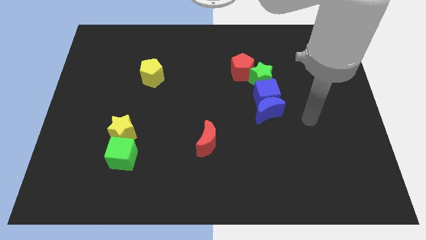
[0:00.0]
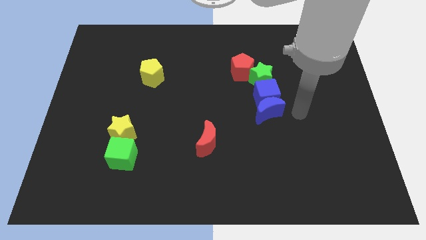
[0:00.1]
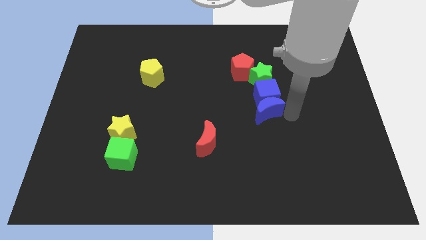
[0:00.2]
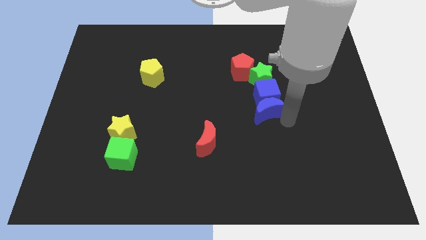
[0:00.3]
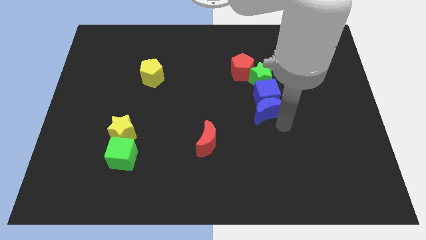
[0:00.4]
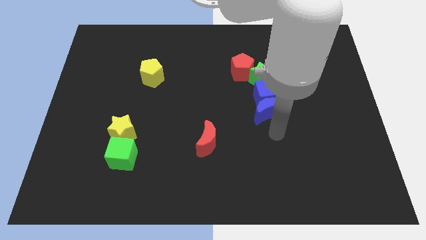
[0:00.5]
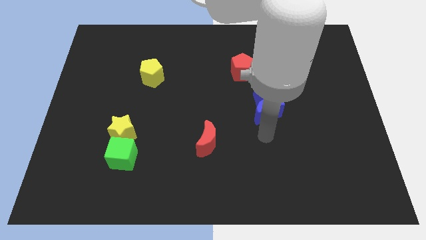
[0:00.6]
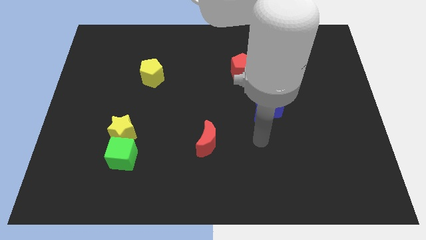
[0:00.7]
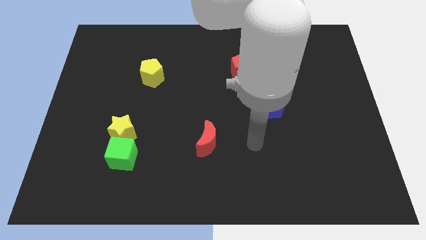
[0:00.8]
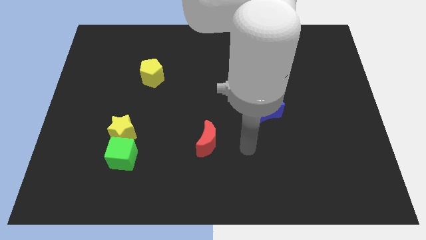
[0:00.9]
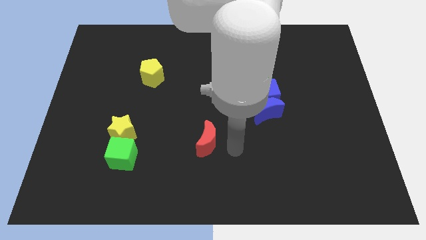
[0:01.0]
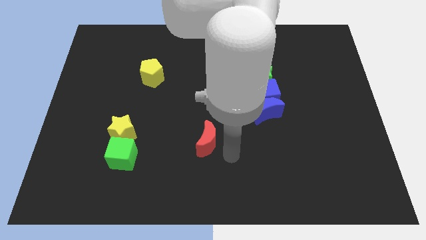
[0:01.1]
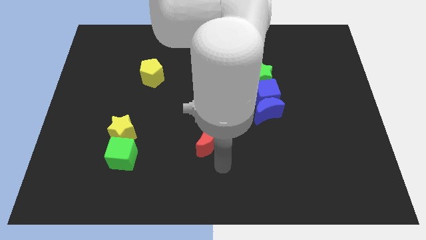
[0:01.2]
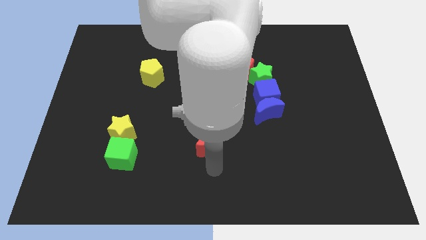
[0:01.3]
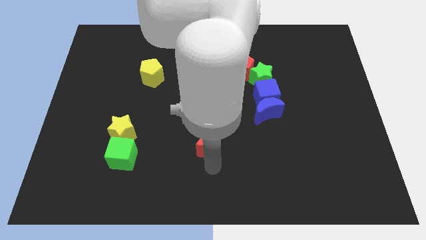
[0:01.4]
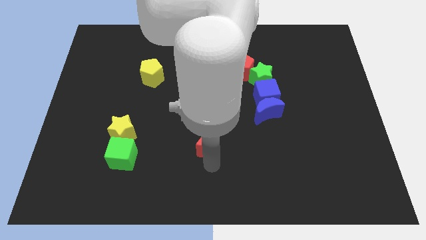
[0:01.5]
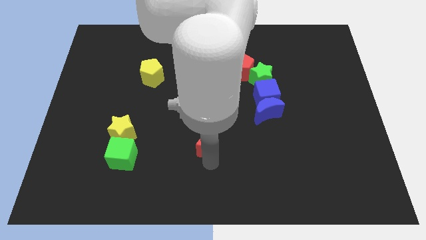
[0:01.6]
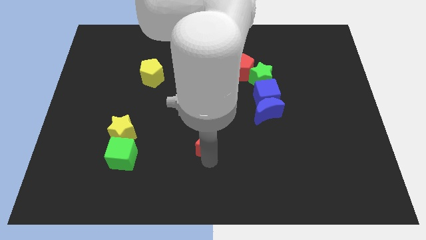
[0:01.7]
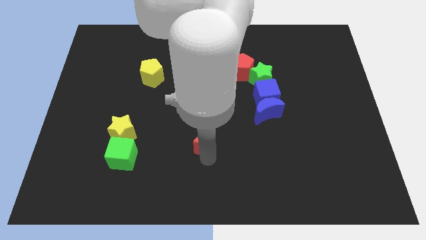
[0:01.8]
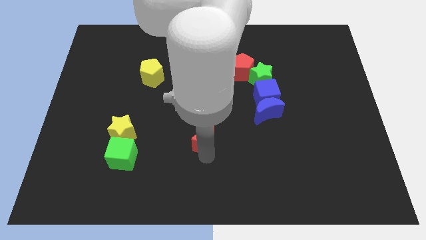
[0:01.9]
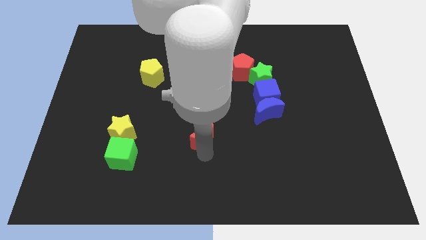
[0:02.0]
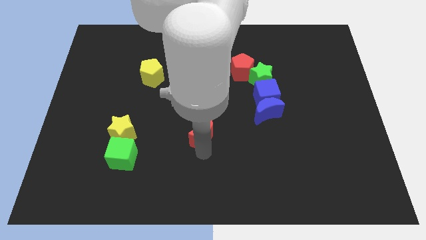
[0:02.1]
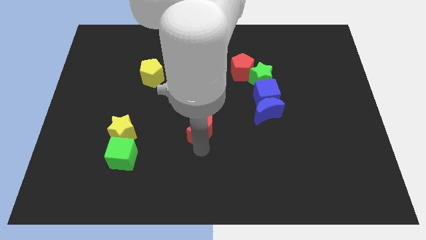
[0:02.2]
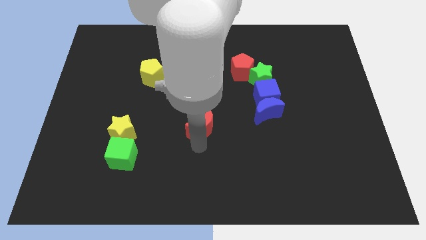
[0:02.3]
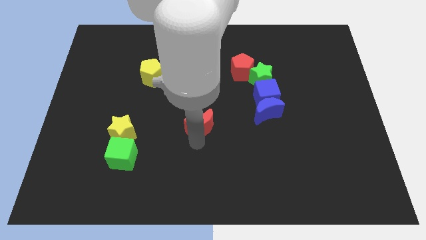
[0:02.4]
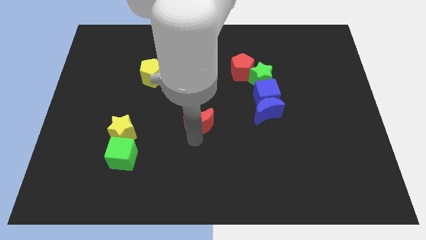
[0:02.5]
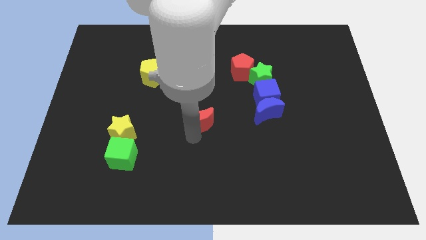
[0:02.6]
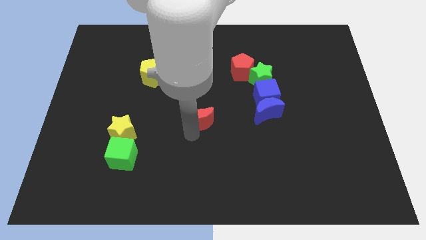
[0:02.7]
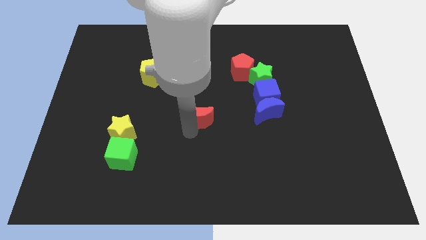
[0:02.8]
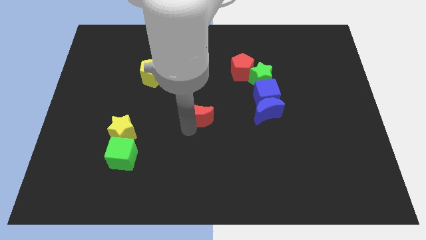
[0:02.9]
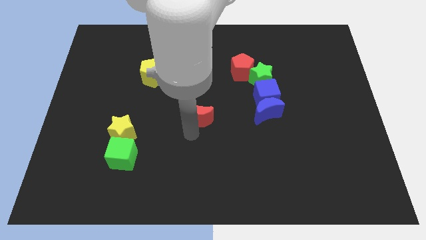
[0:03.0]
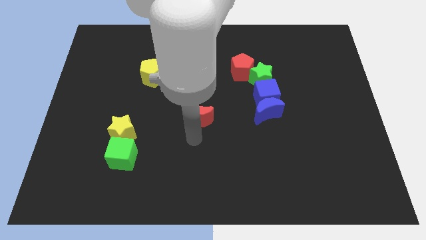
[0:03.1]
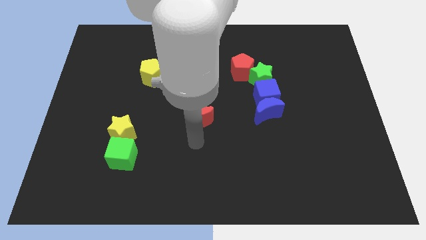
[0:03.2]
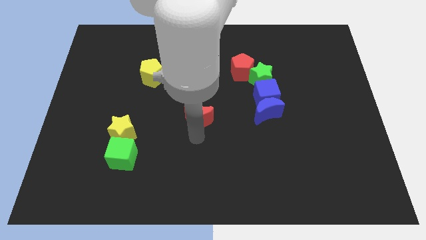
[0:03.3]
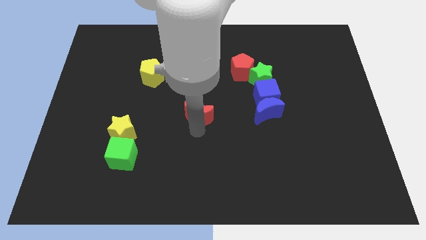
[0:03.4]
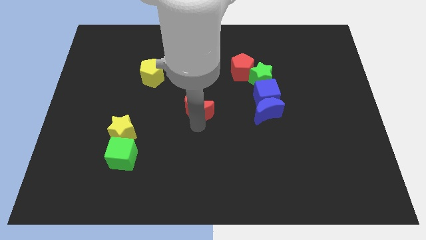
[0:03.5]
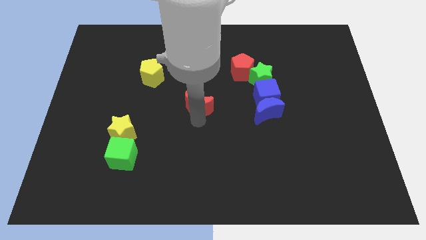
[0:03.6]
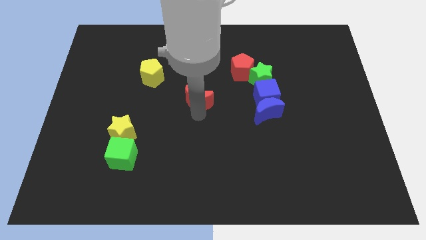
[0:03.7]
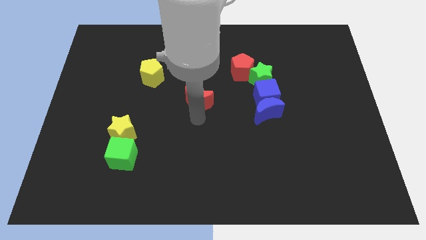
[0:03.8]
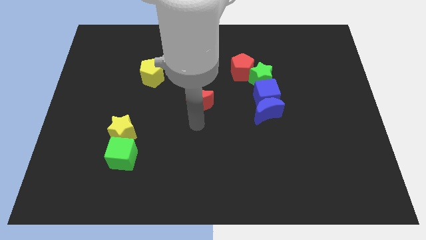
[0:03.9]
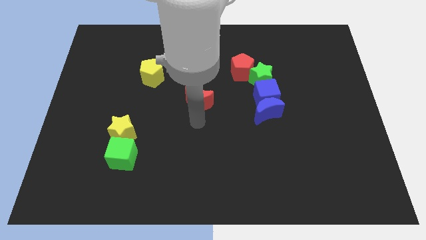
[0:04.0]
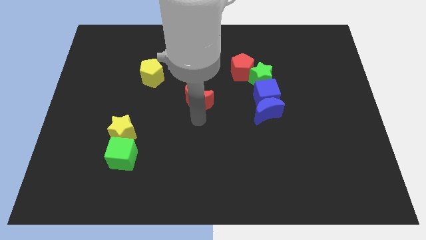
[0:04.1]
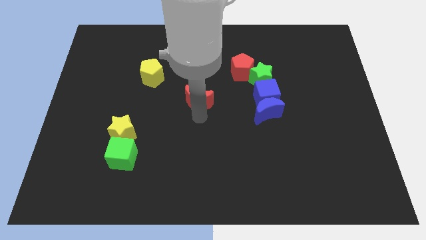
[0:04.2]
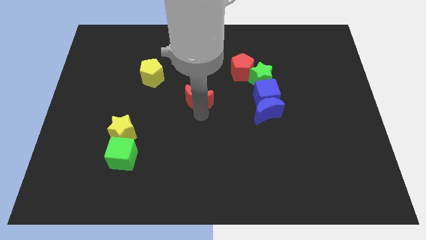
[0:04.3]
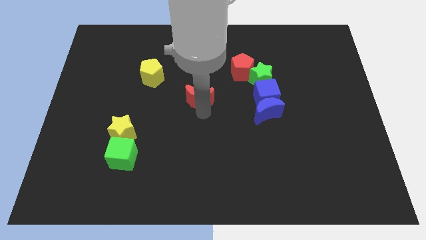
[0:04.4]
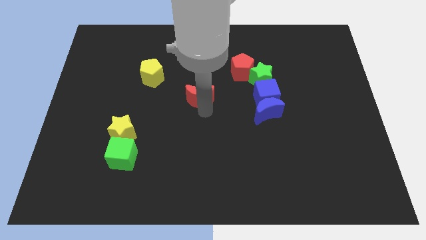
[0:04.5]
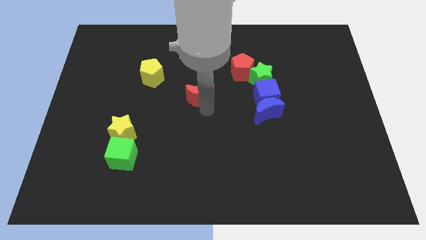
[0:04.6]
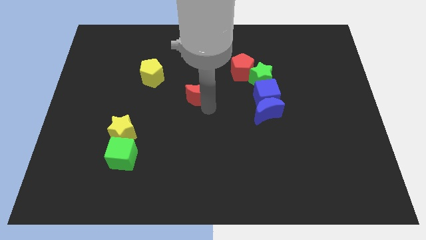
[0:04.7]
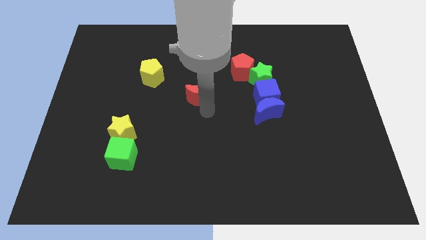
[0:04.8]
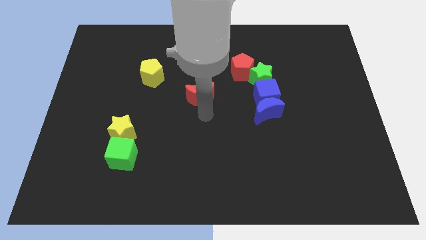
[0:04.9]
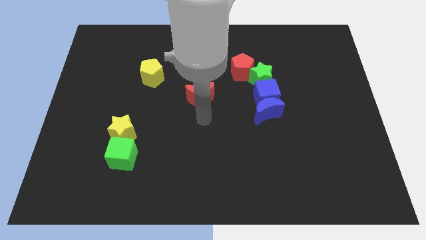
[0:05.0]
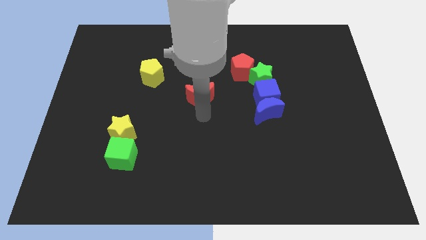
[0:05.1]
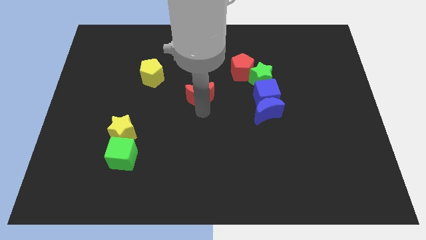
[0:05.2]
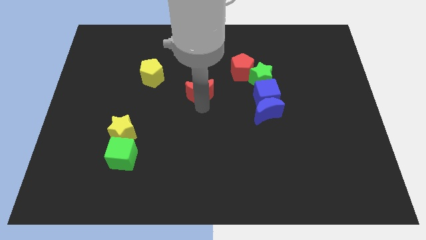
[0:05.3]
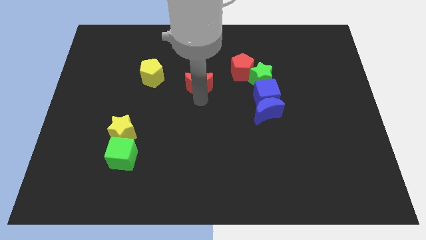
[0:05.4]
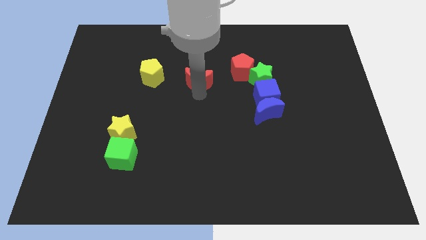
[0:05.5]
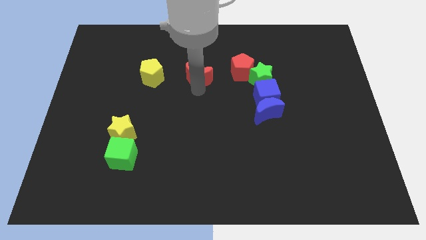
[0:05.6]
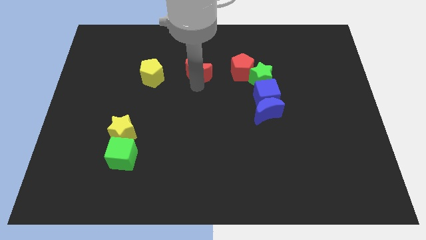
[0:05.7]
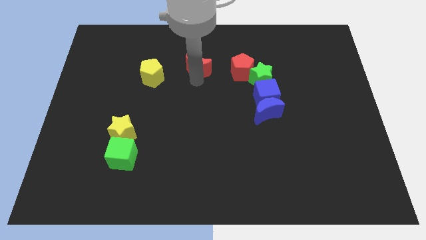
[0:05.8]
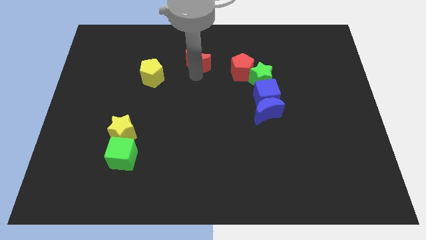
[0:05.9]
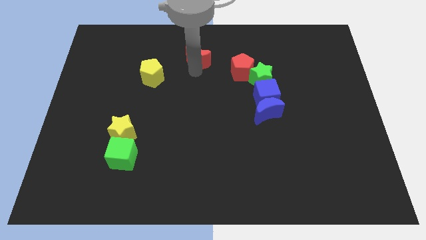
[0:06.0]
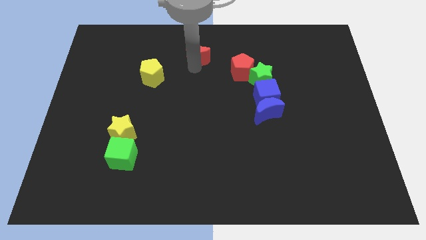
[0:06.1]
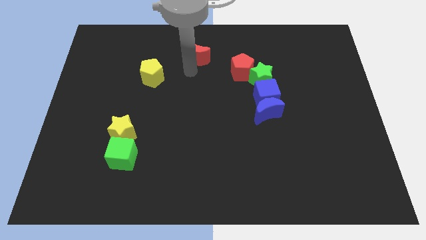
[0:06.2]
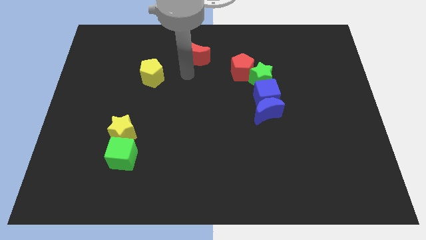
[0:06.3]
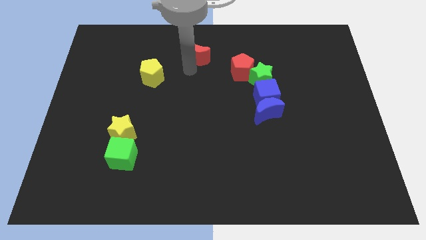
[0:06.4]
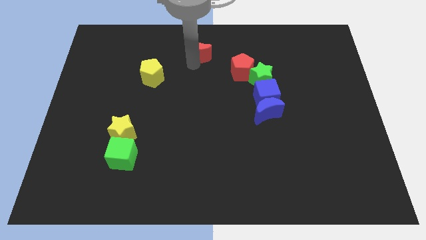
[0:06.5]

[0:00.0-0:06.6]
push the red moon to the top side
